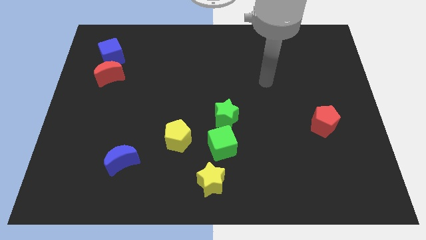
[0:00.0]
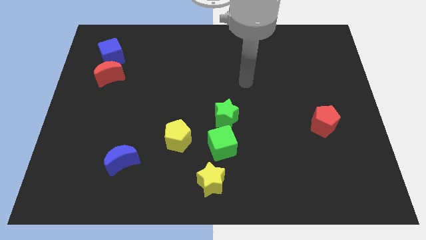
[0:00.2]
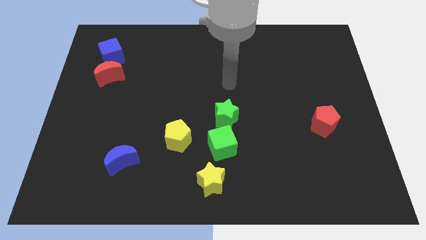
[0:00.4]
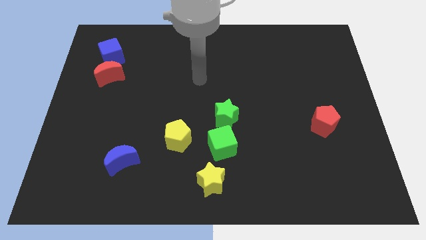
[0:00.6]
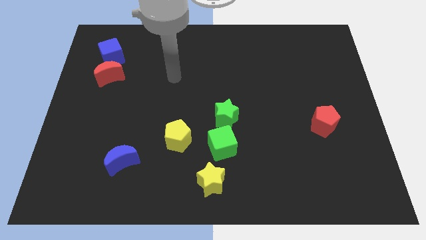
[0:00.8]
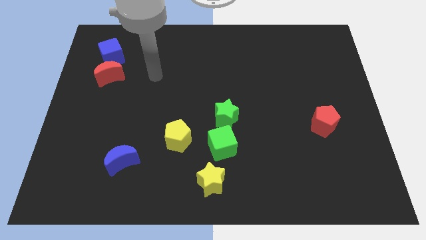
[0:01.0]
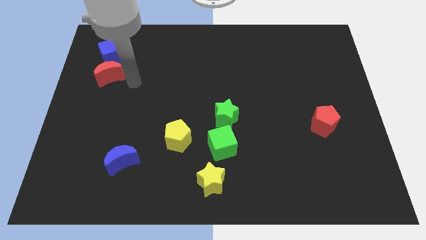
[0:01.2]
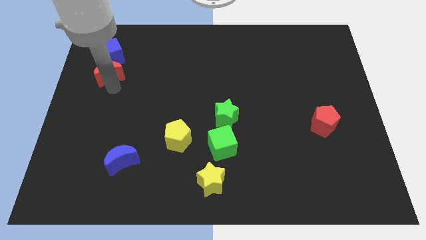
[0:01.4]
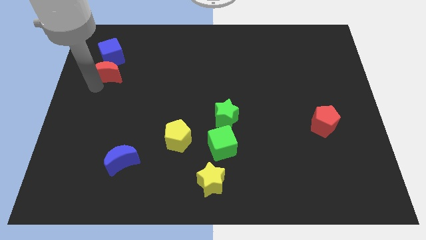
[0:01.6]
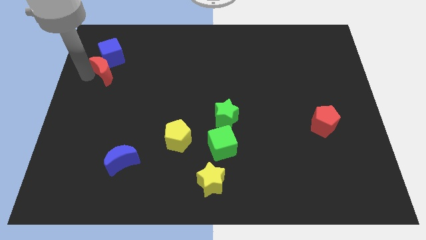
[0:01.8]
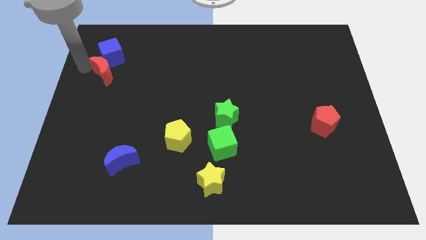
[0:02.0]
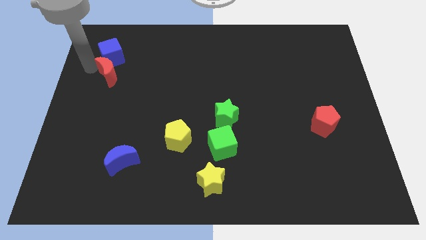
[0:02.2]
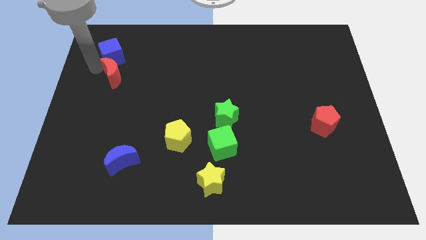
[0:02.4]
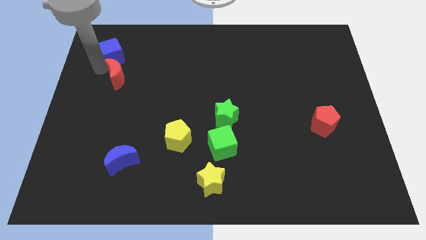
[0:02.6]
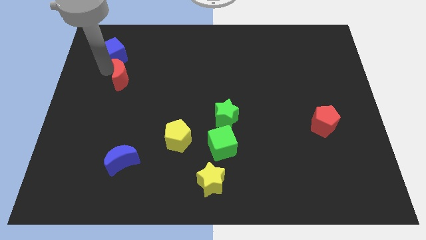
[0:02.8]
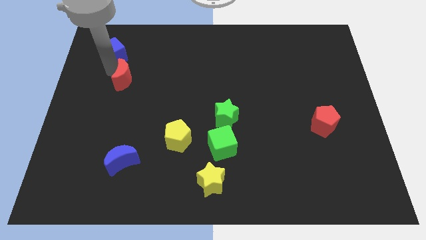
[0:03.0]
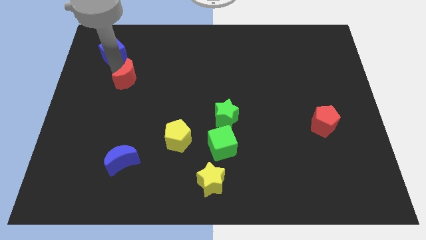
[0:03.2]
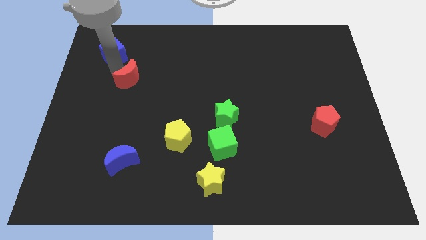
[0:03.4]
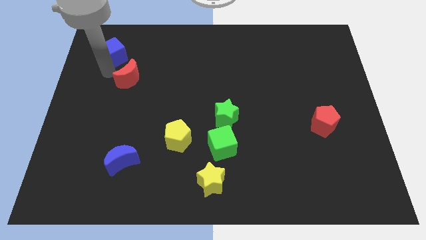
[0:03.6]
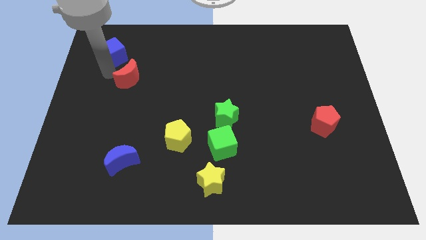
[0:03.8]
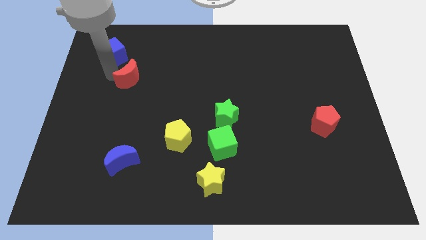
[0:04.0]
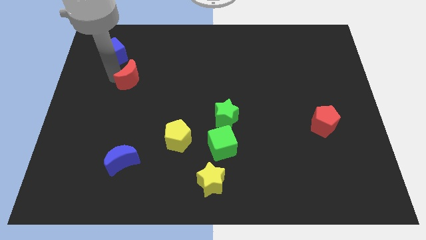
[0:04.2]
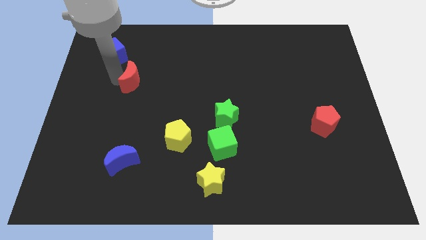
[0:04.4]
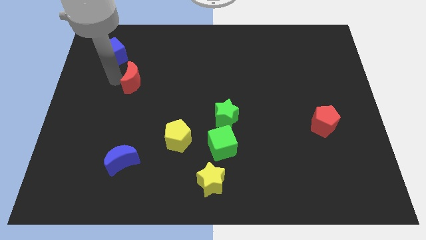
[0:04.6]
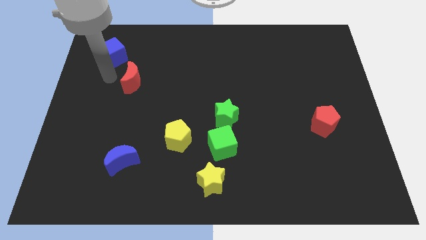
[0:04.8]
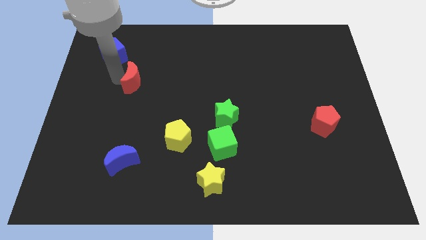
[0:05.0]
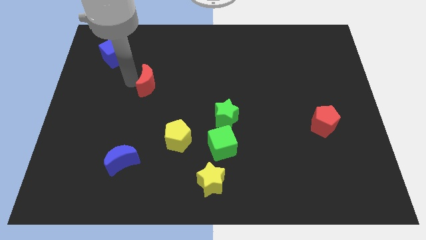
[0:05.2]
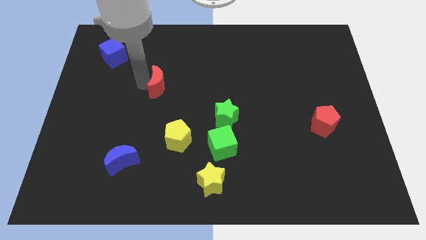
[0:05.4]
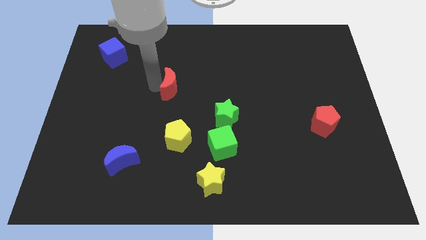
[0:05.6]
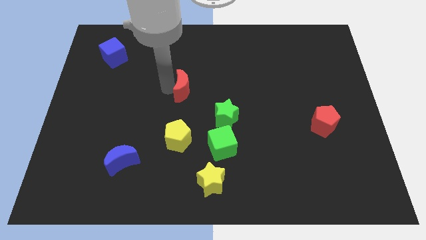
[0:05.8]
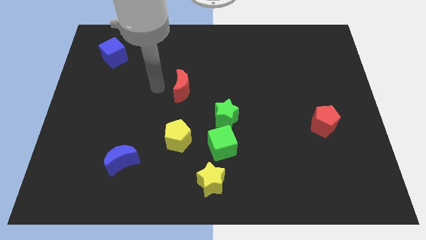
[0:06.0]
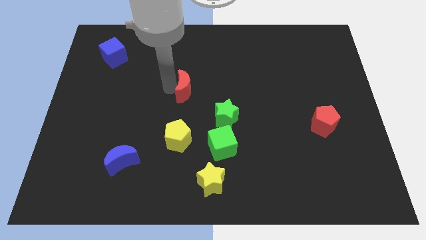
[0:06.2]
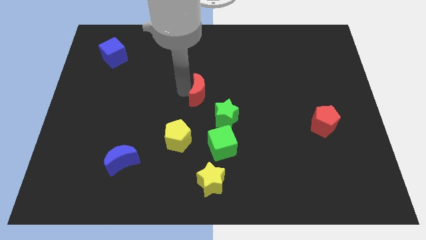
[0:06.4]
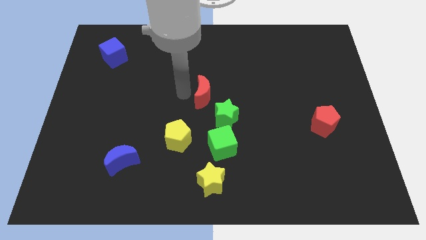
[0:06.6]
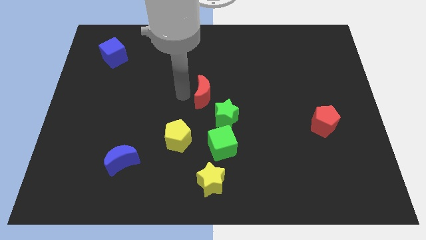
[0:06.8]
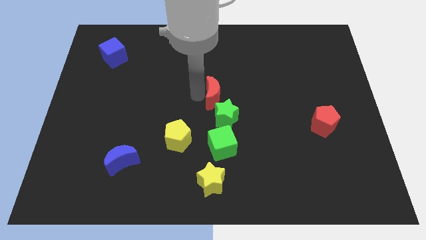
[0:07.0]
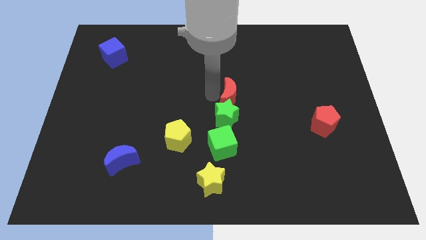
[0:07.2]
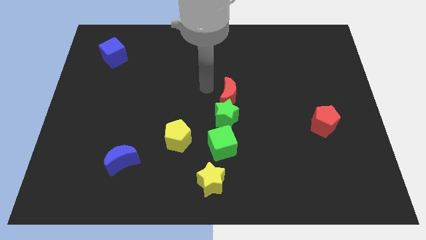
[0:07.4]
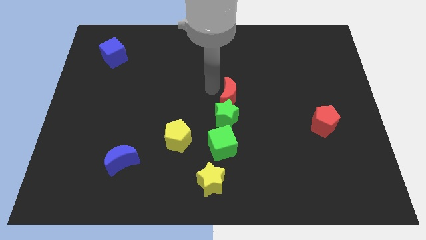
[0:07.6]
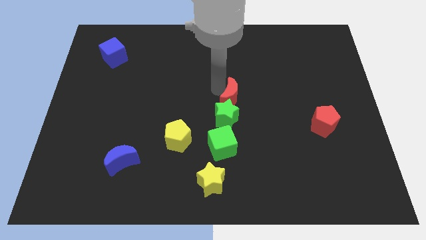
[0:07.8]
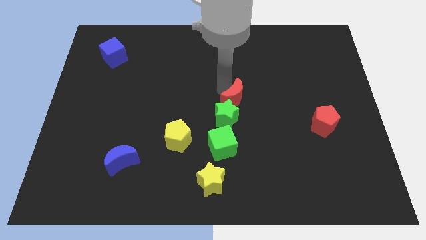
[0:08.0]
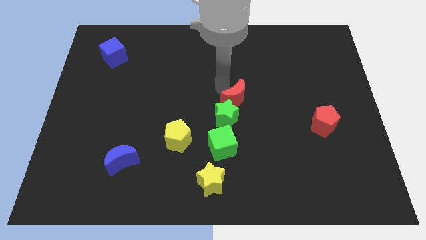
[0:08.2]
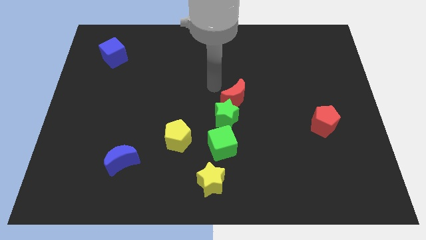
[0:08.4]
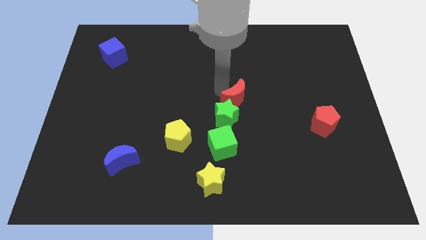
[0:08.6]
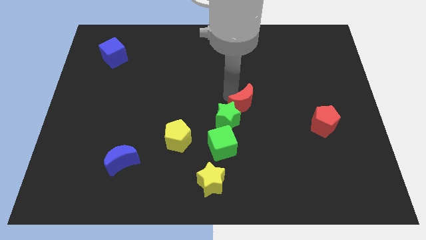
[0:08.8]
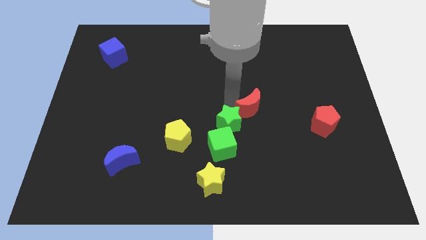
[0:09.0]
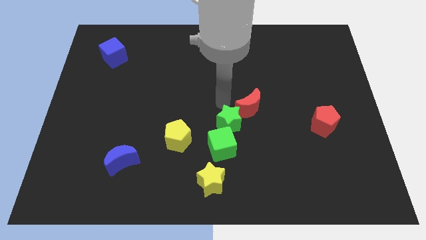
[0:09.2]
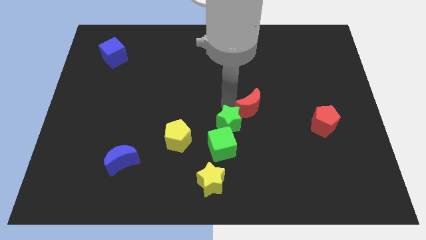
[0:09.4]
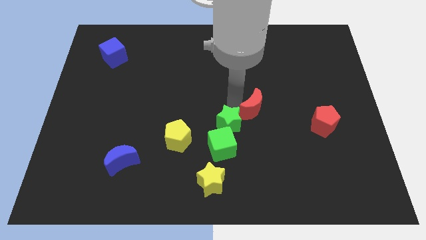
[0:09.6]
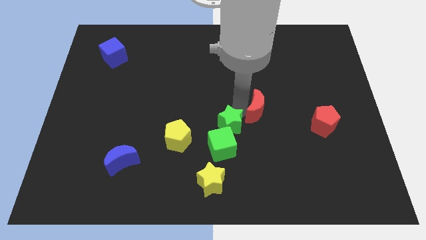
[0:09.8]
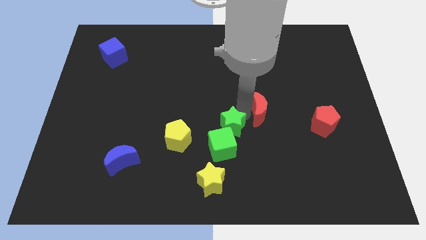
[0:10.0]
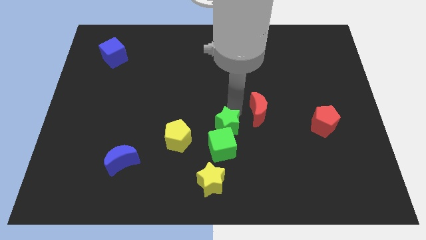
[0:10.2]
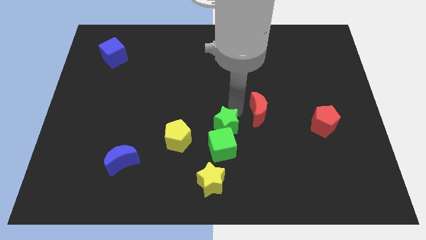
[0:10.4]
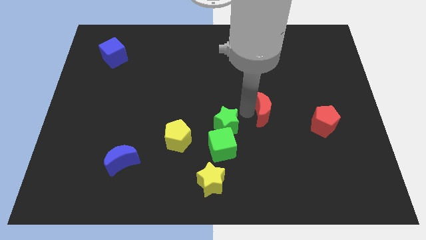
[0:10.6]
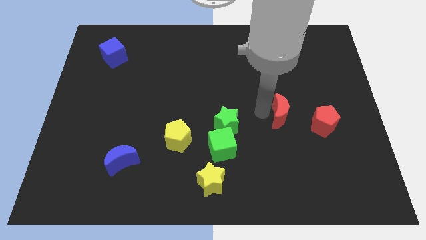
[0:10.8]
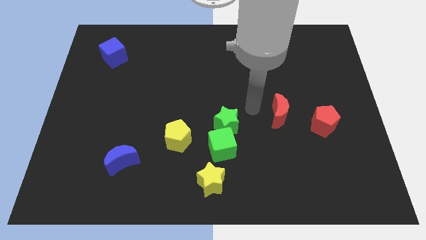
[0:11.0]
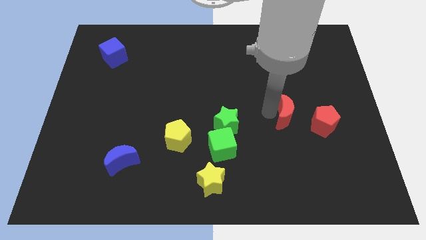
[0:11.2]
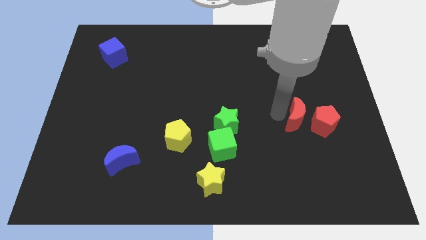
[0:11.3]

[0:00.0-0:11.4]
push the red moon to the red pentagon

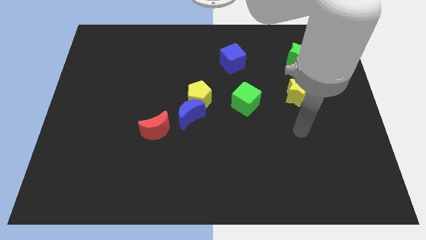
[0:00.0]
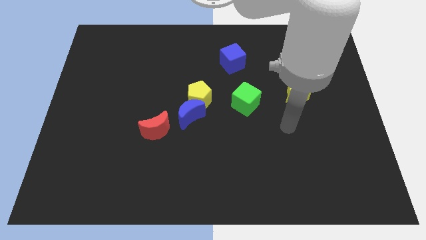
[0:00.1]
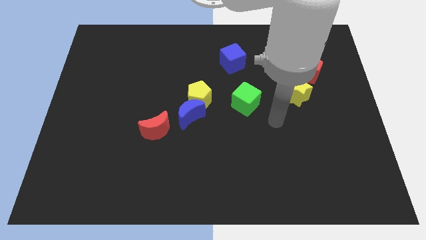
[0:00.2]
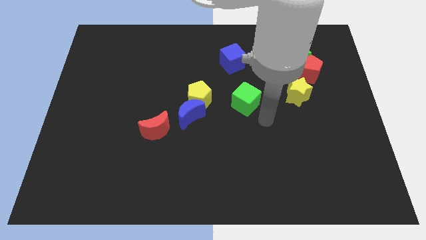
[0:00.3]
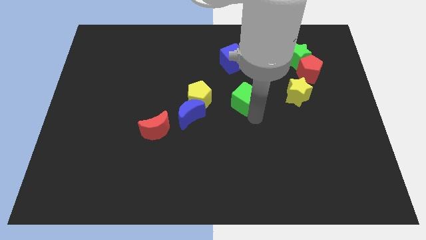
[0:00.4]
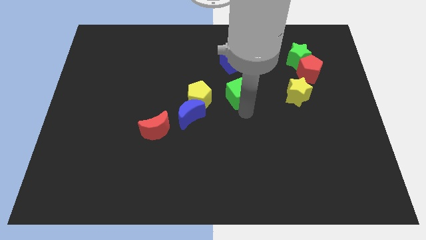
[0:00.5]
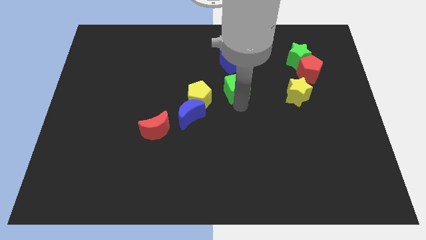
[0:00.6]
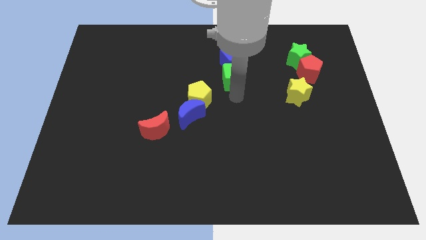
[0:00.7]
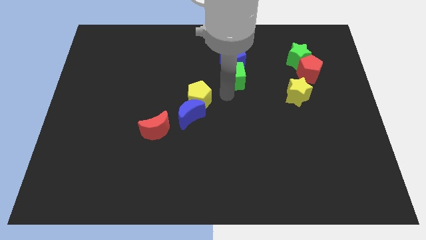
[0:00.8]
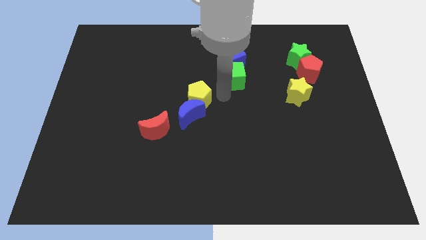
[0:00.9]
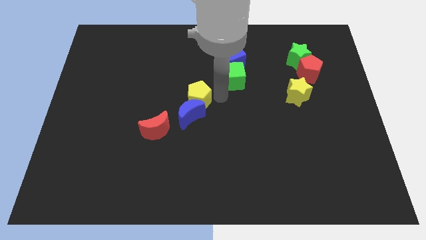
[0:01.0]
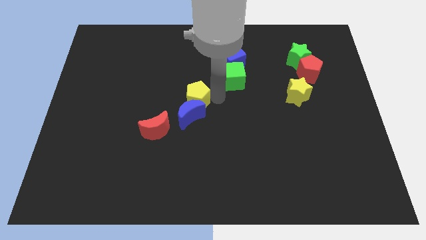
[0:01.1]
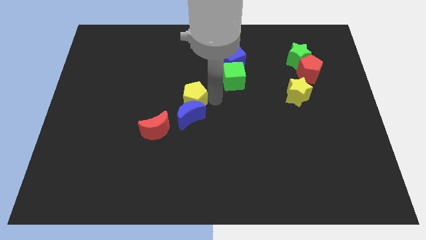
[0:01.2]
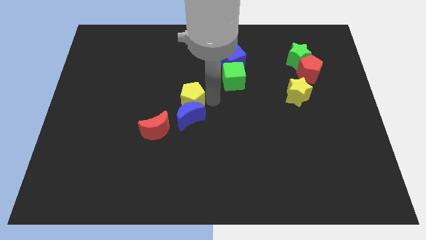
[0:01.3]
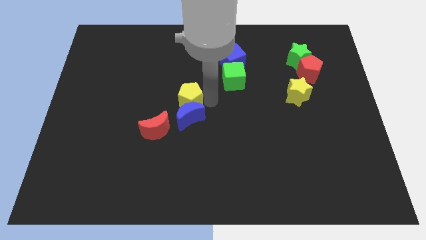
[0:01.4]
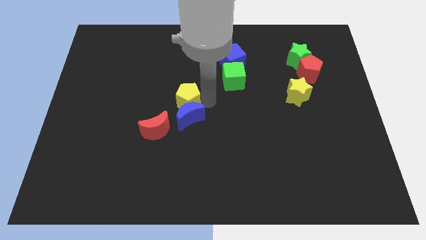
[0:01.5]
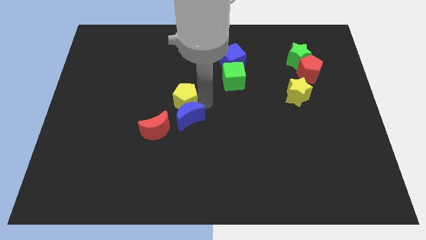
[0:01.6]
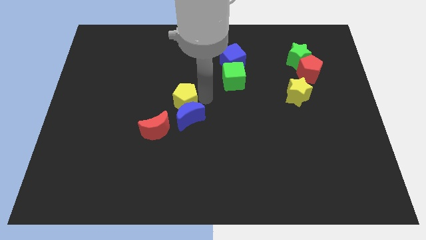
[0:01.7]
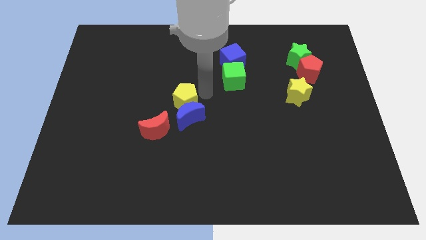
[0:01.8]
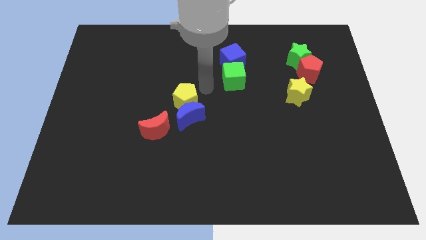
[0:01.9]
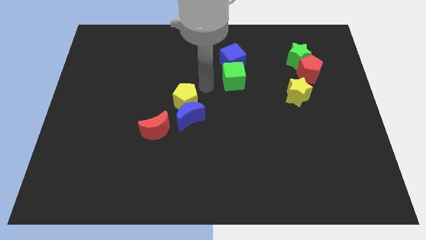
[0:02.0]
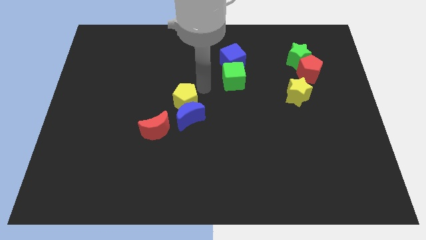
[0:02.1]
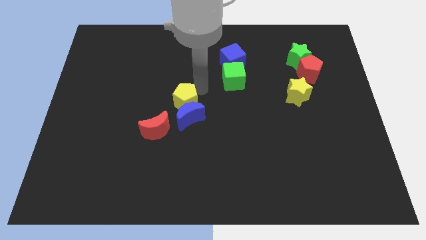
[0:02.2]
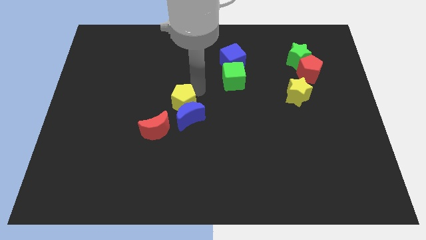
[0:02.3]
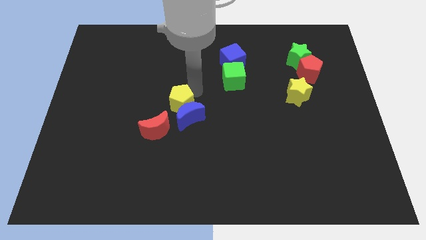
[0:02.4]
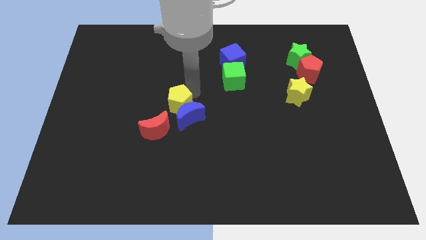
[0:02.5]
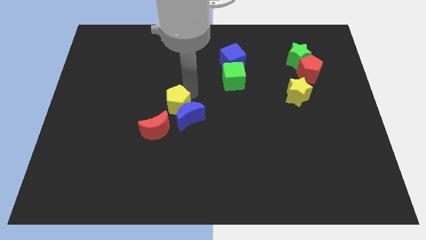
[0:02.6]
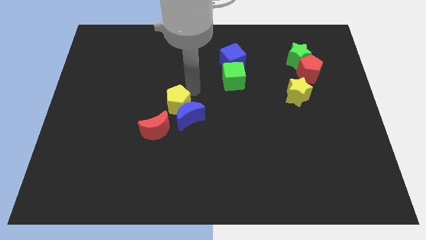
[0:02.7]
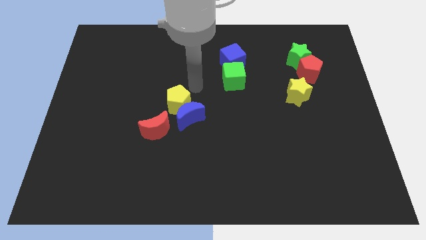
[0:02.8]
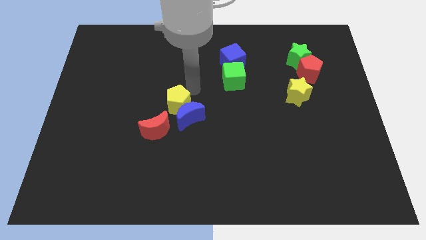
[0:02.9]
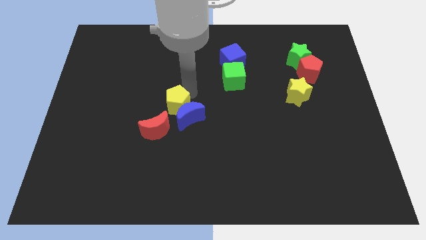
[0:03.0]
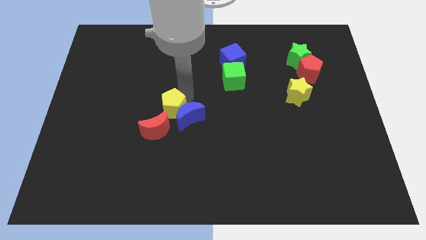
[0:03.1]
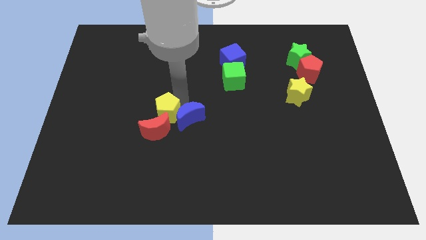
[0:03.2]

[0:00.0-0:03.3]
push the yellow pentagon to the red moon
